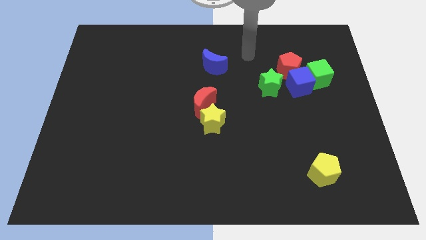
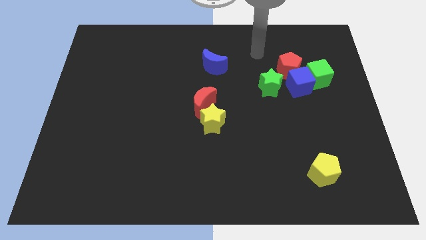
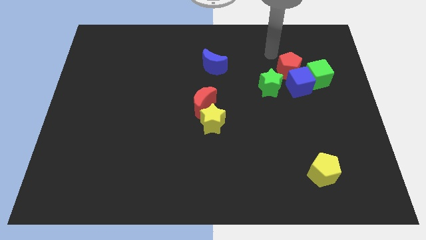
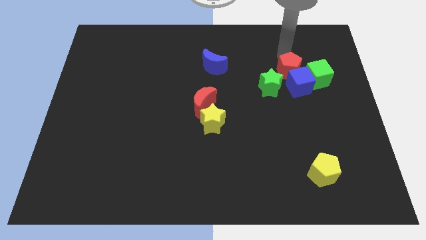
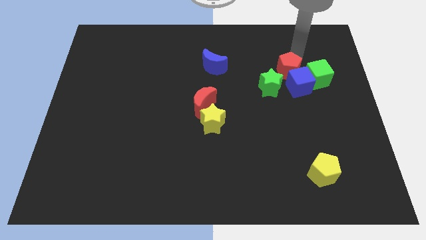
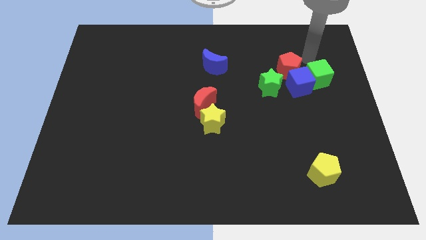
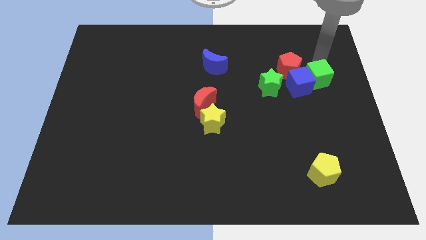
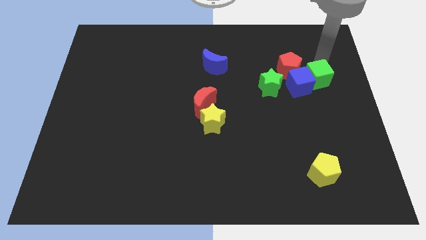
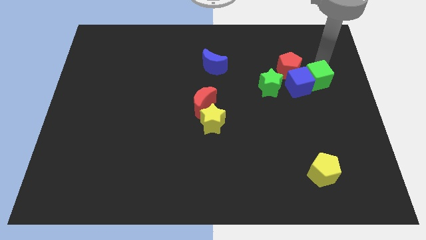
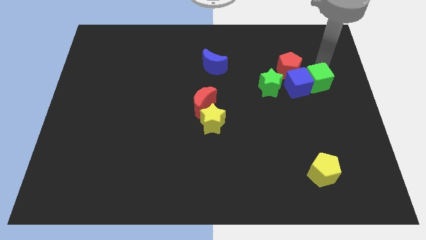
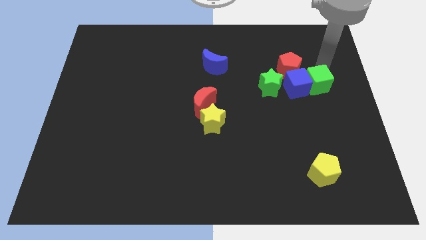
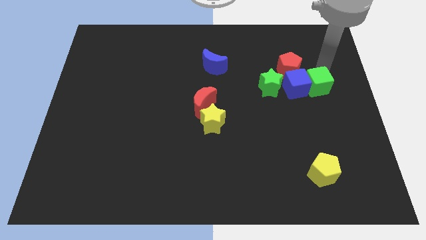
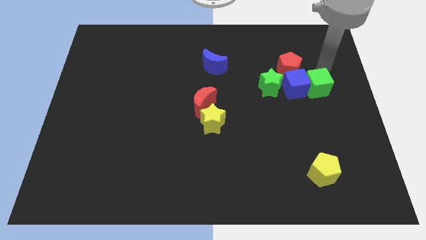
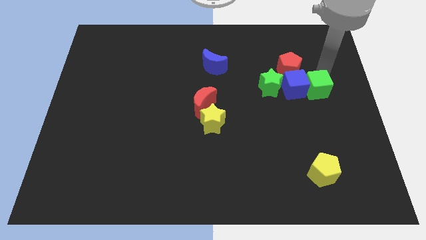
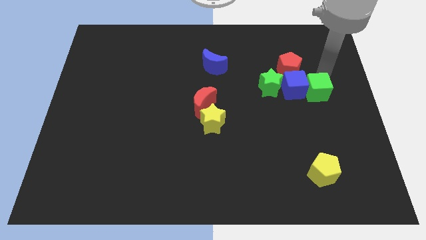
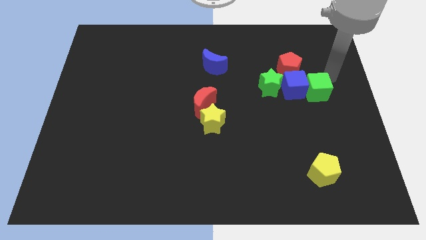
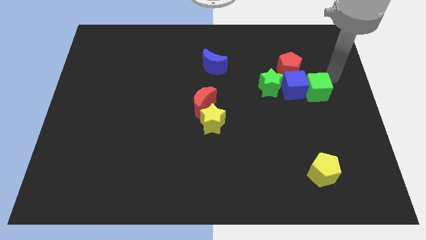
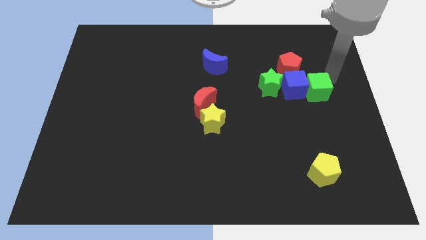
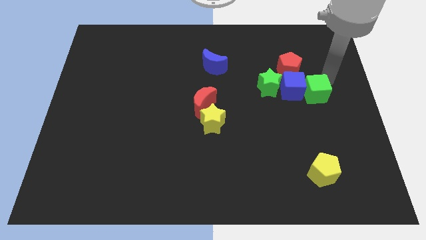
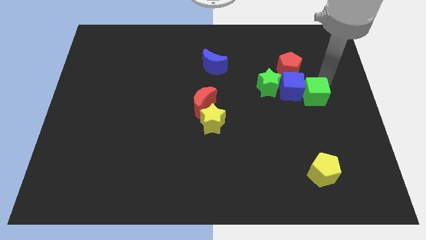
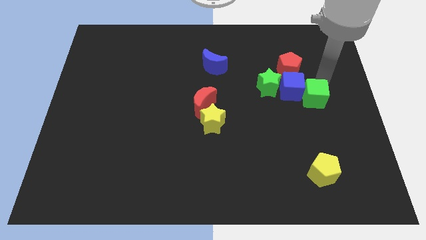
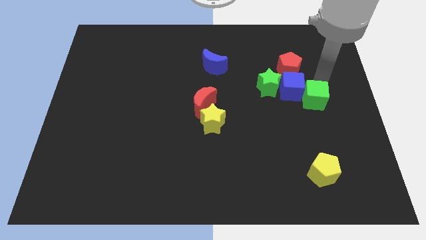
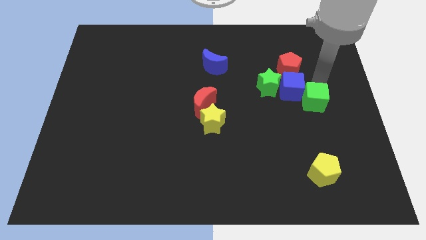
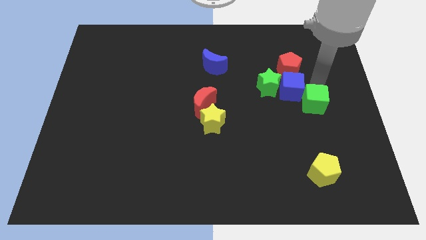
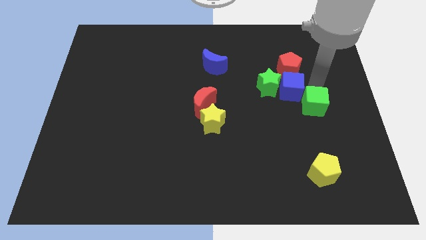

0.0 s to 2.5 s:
push the green cube somewhat downwards and then left

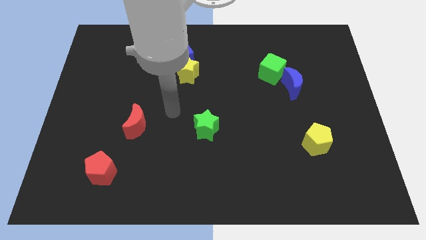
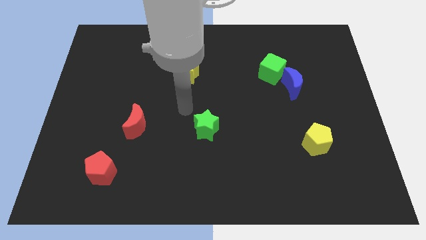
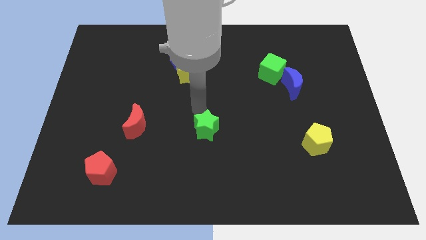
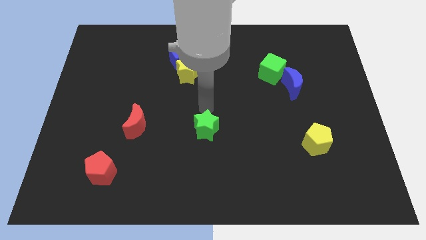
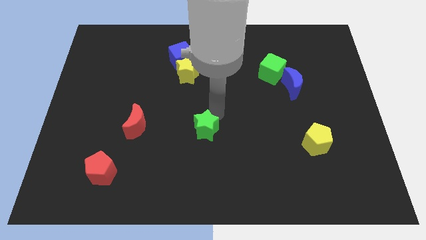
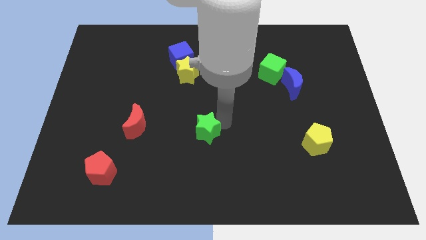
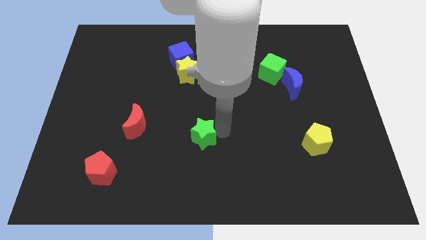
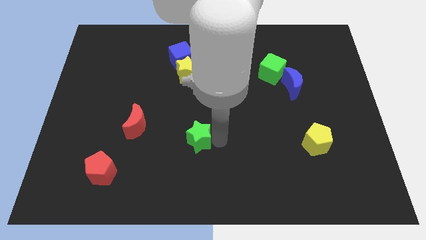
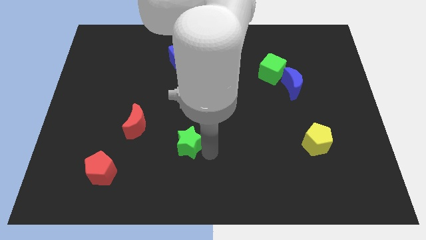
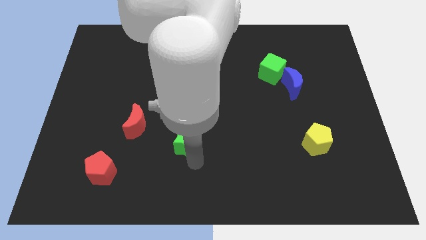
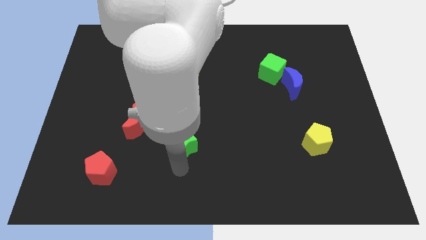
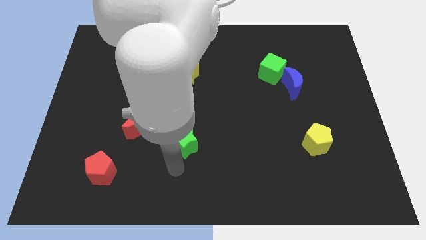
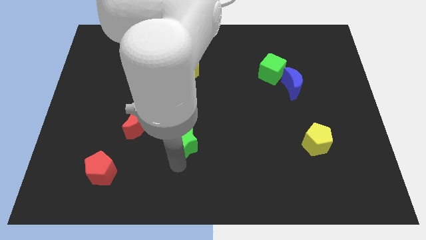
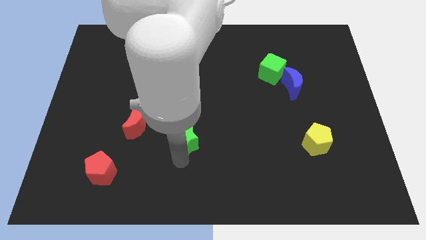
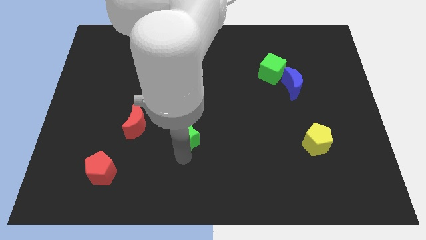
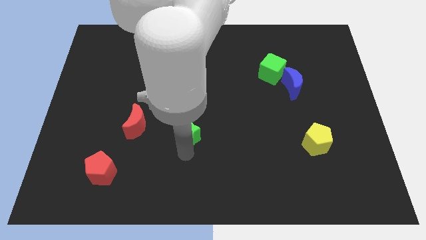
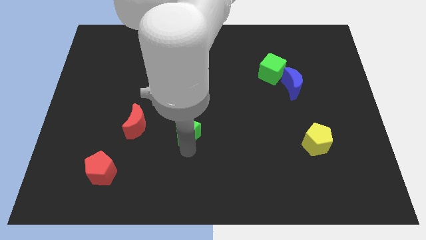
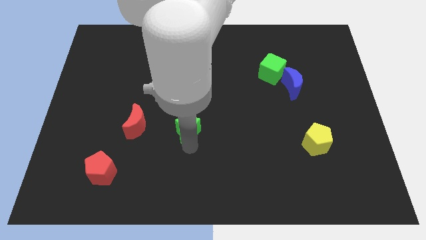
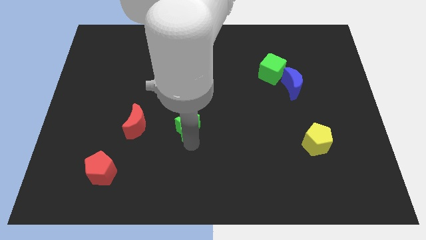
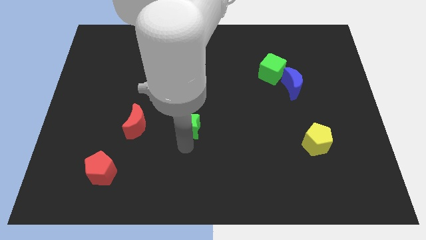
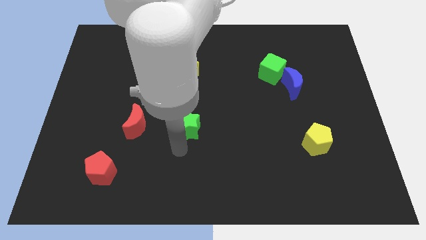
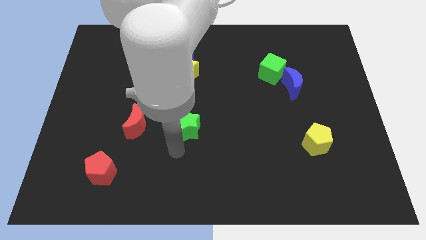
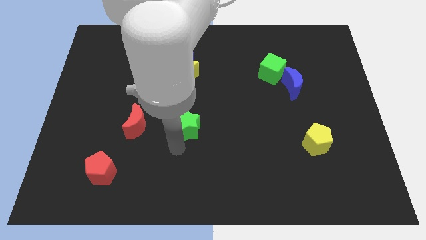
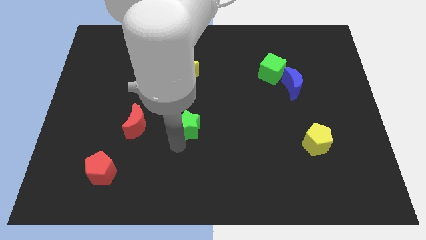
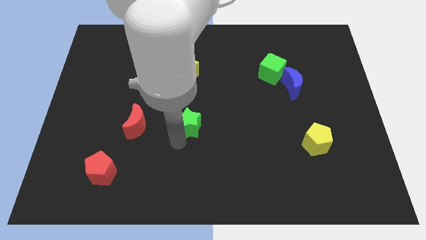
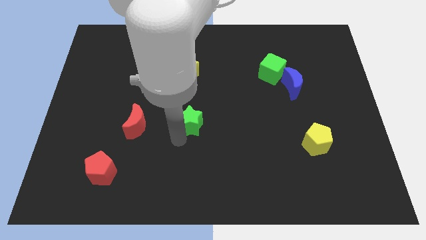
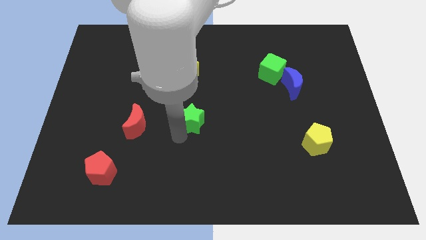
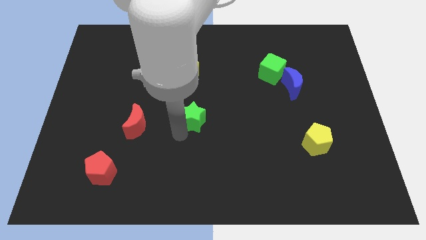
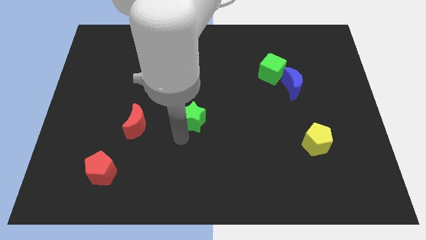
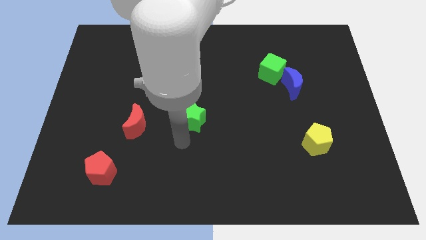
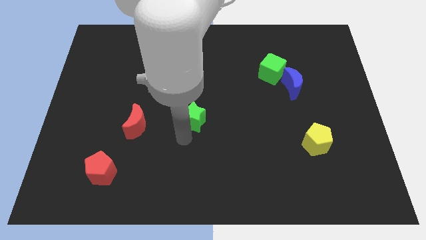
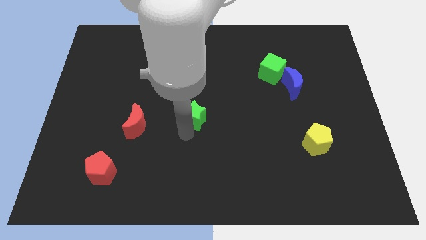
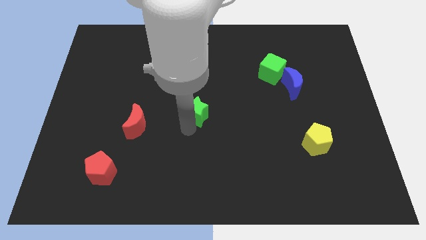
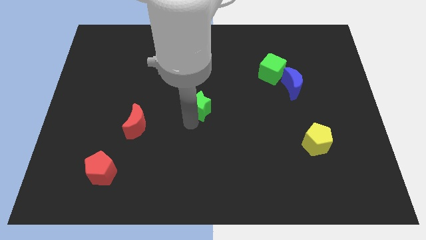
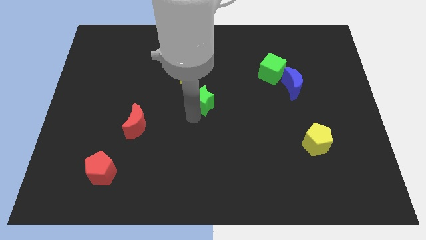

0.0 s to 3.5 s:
slide the green star a little bit upwards

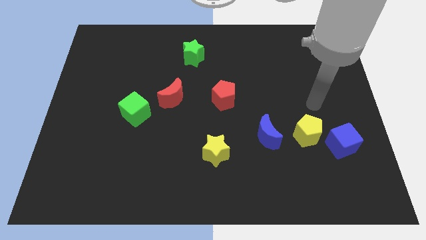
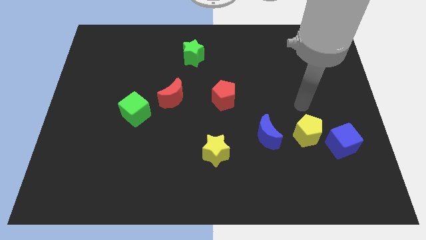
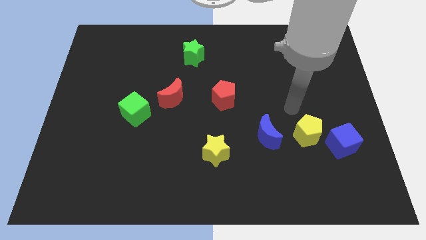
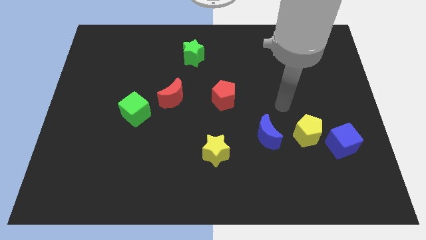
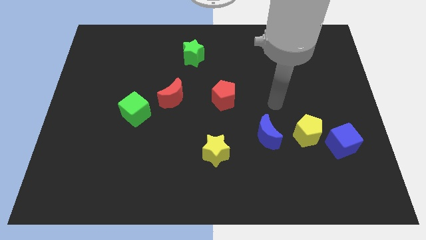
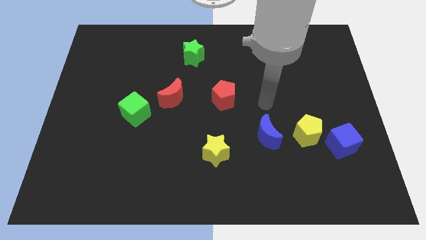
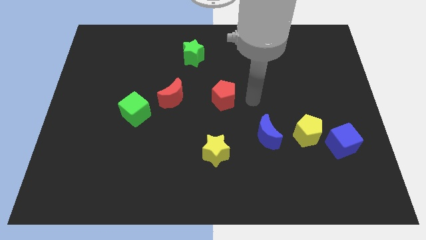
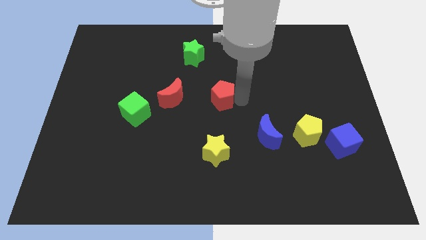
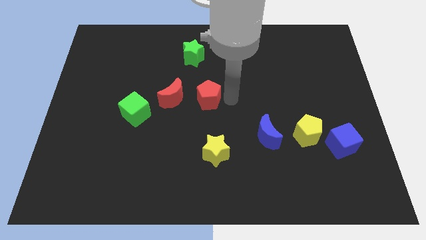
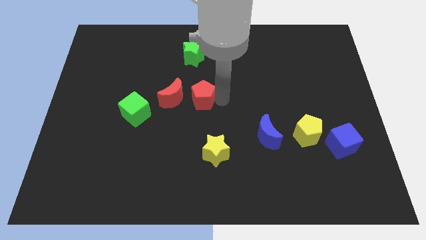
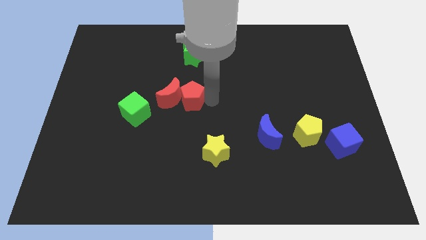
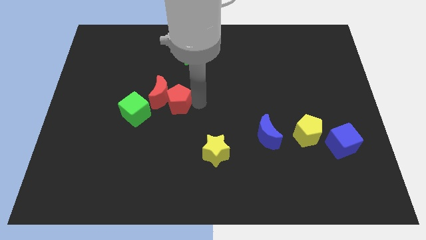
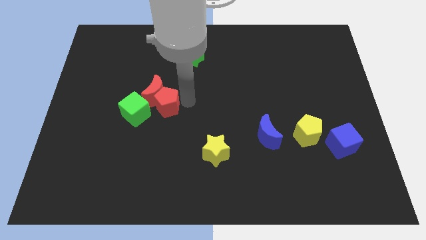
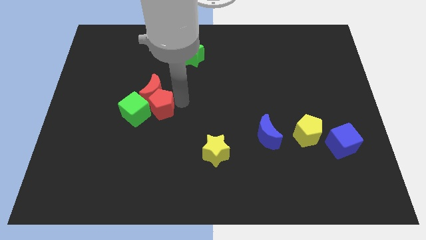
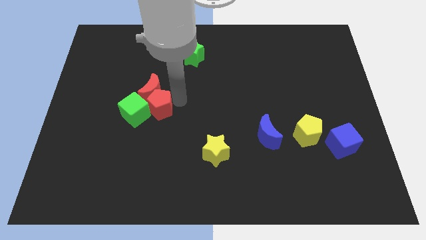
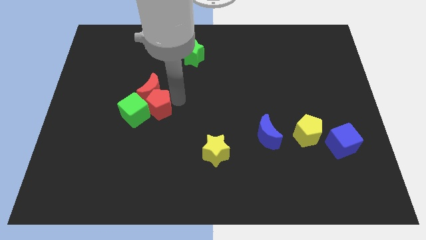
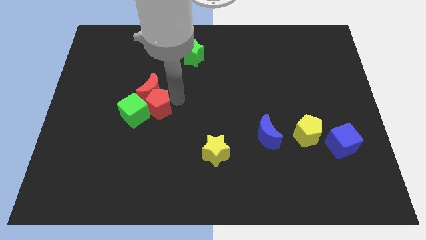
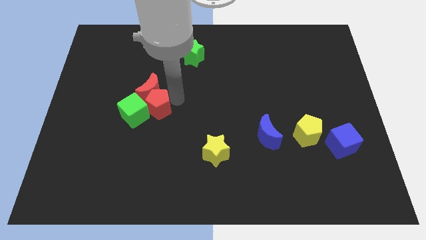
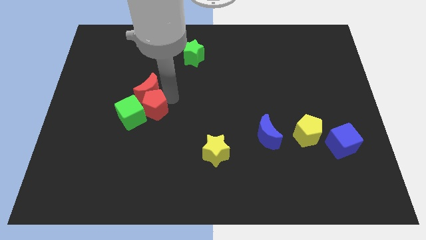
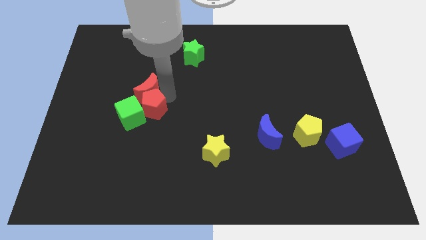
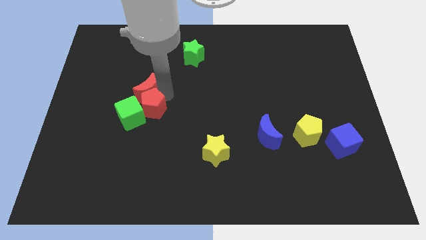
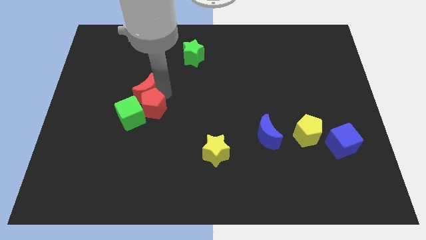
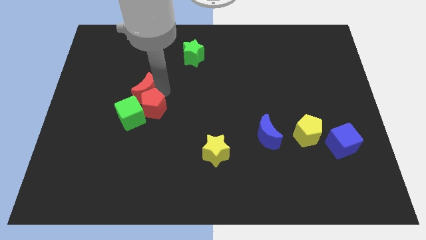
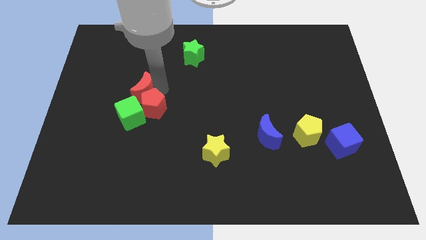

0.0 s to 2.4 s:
move the red moon a little left
